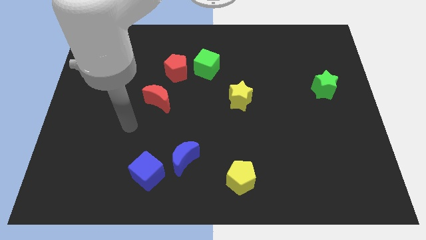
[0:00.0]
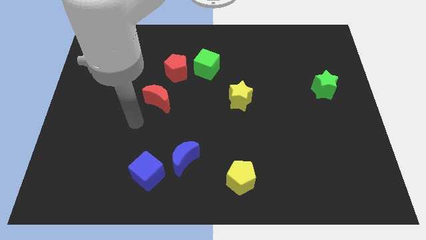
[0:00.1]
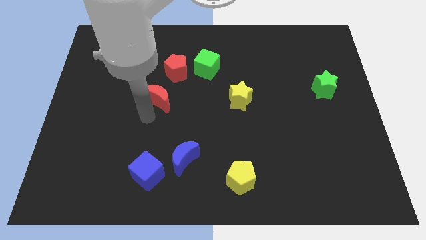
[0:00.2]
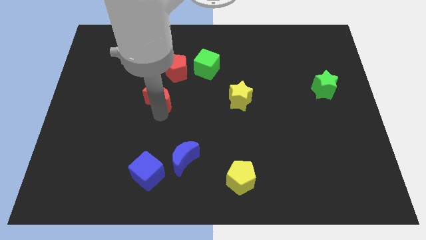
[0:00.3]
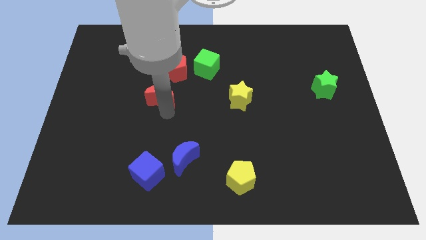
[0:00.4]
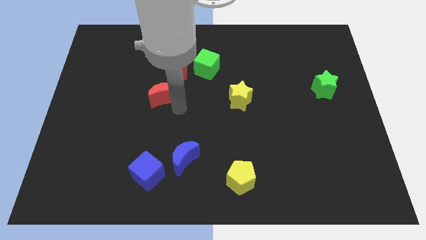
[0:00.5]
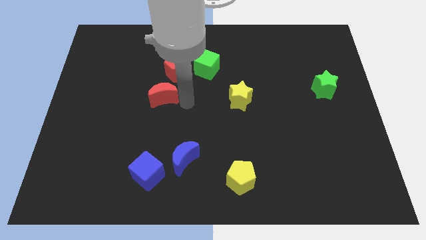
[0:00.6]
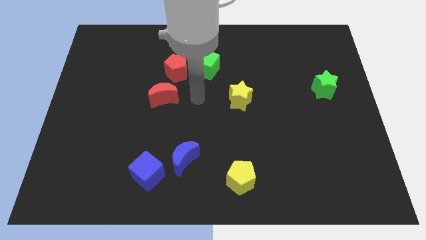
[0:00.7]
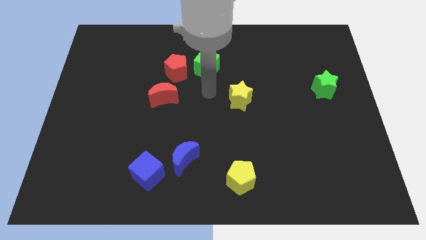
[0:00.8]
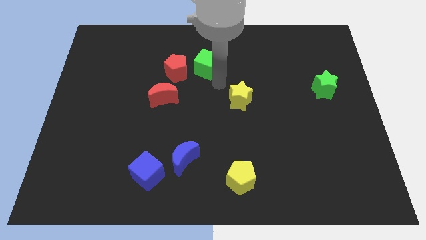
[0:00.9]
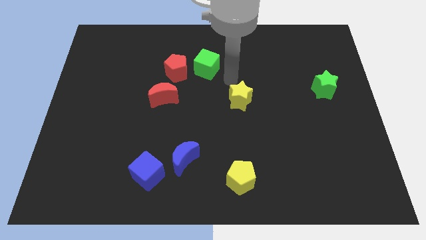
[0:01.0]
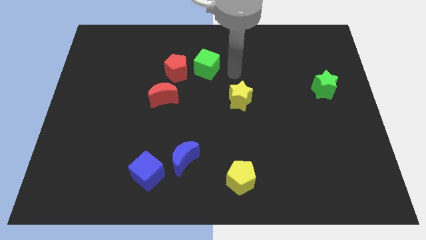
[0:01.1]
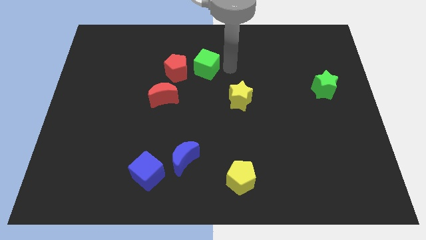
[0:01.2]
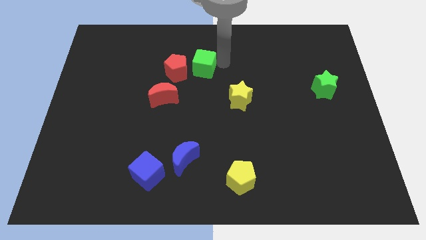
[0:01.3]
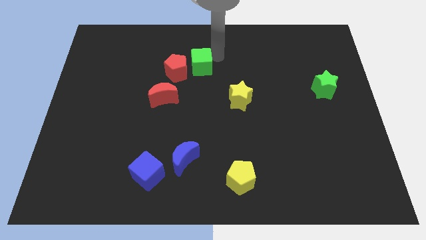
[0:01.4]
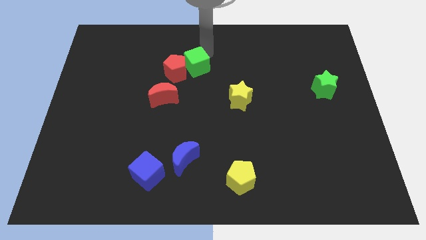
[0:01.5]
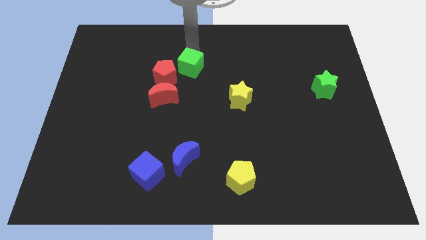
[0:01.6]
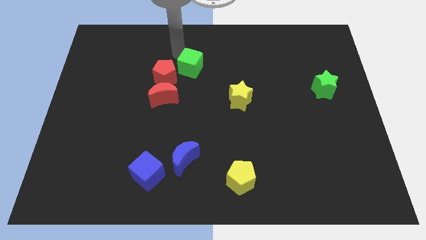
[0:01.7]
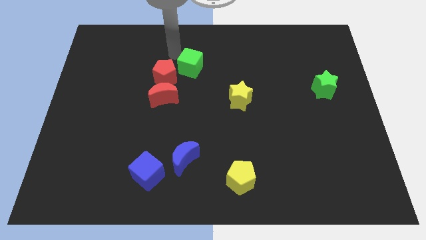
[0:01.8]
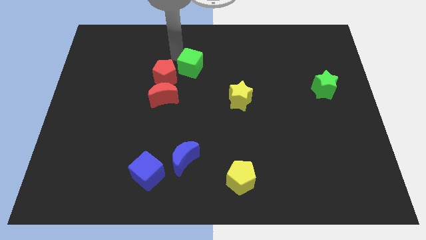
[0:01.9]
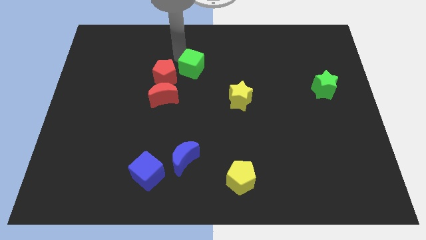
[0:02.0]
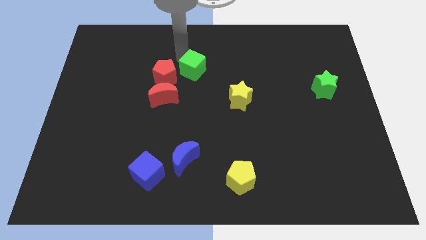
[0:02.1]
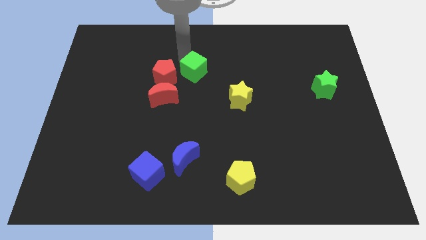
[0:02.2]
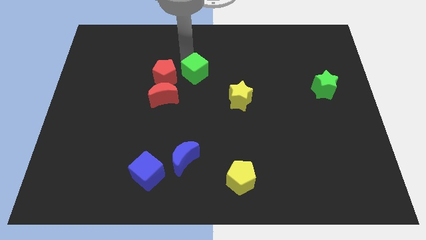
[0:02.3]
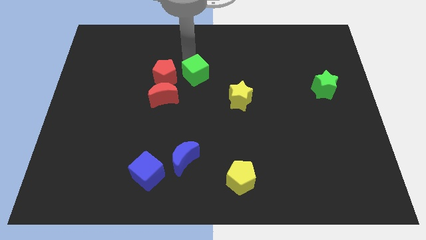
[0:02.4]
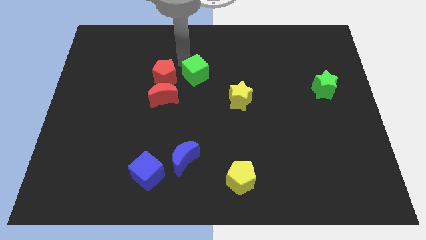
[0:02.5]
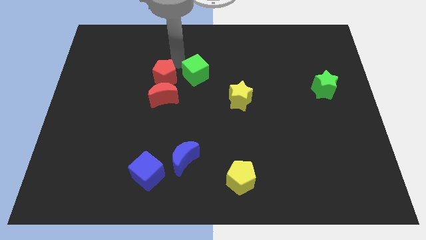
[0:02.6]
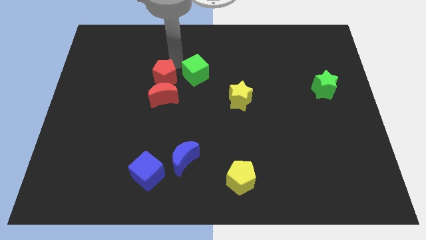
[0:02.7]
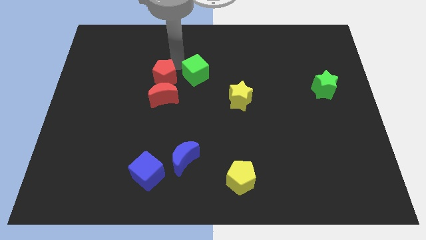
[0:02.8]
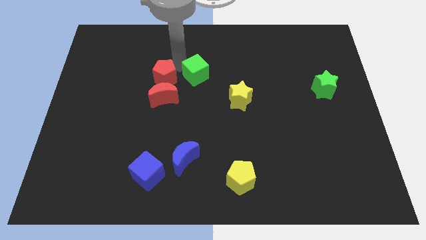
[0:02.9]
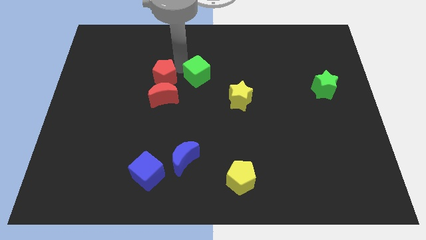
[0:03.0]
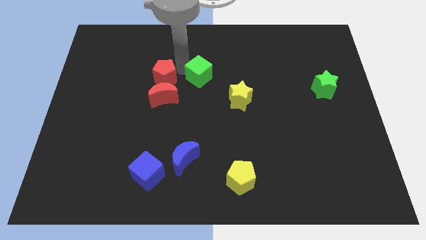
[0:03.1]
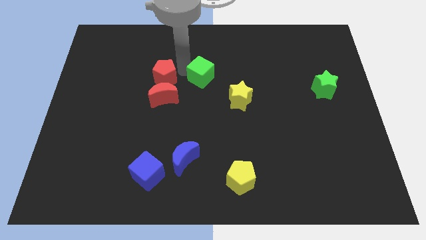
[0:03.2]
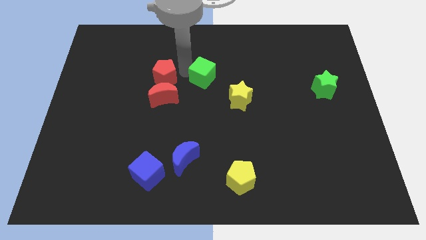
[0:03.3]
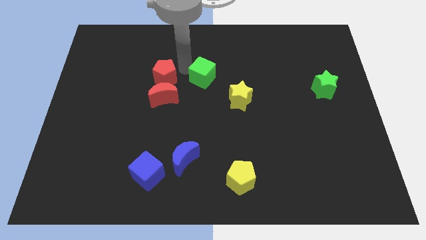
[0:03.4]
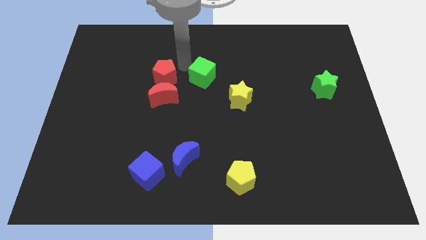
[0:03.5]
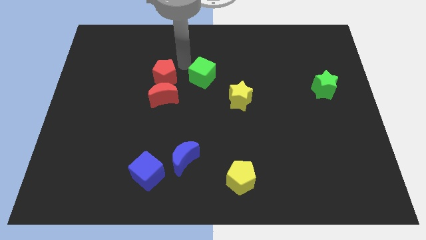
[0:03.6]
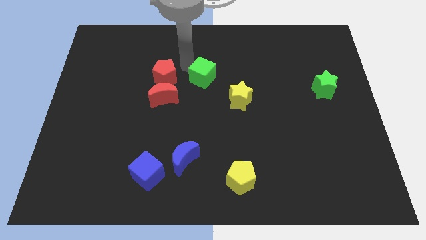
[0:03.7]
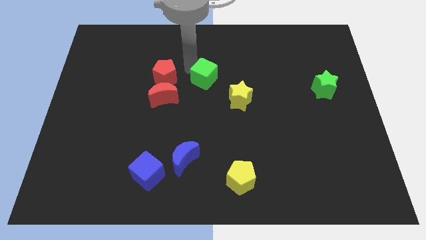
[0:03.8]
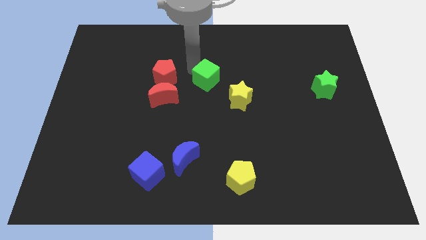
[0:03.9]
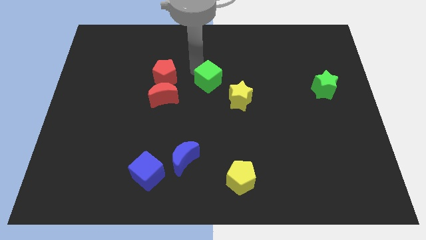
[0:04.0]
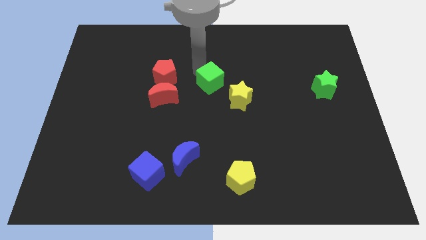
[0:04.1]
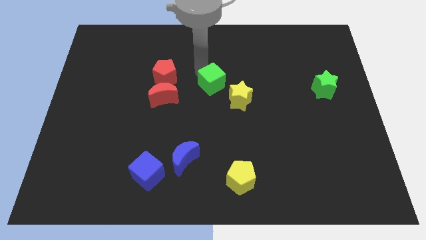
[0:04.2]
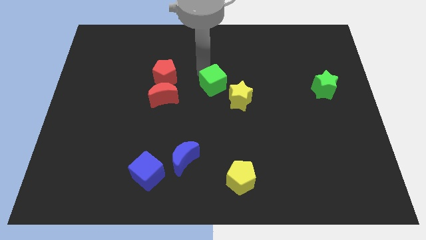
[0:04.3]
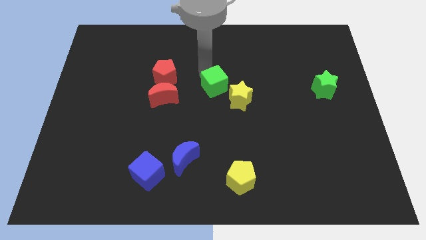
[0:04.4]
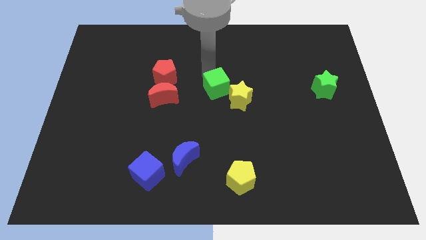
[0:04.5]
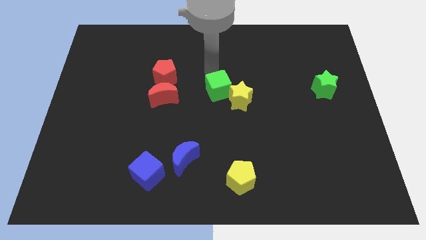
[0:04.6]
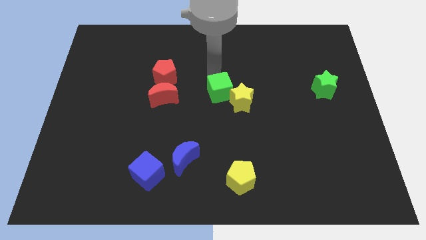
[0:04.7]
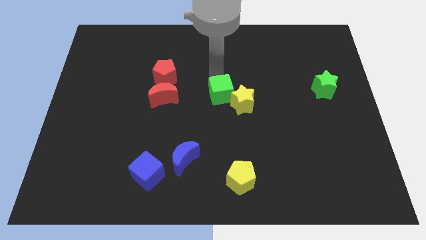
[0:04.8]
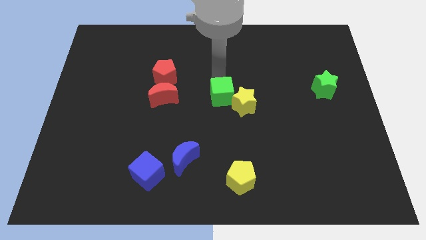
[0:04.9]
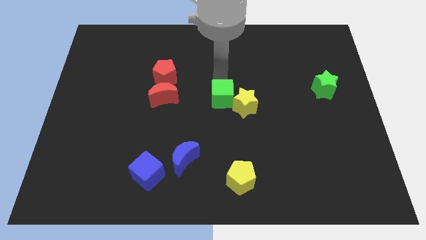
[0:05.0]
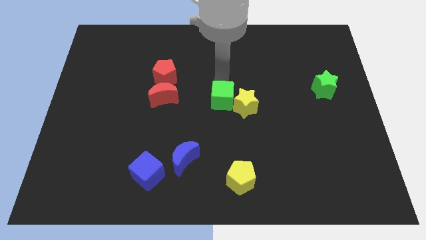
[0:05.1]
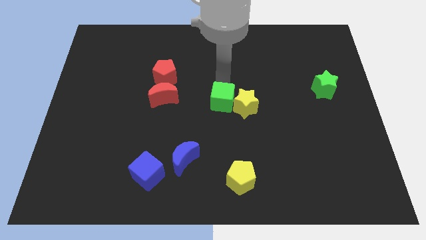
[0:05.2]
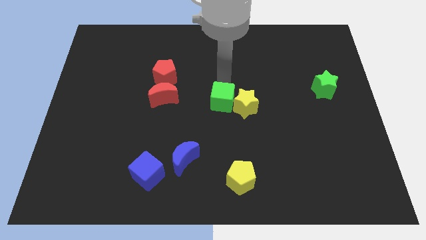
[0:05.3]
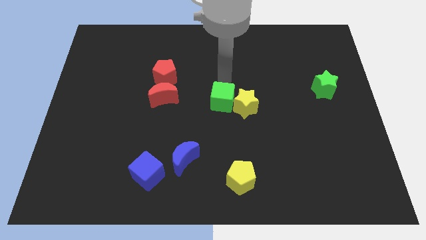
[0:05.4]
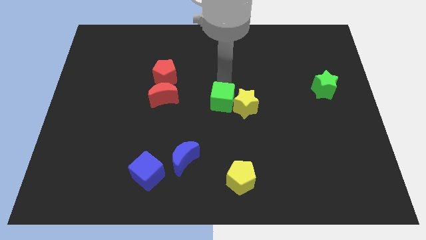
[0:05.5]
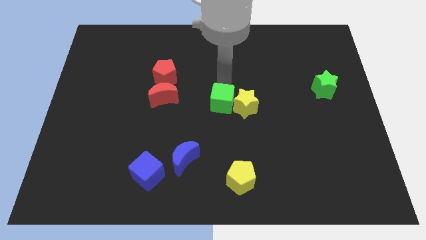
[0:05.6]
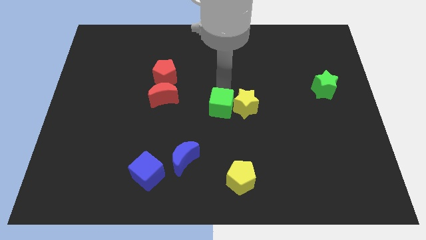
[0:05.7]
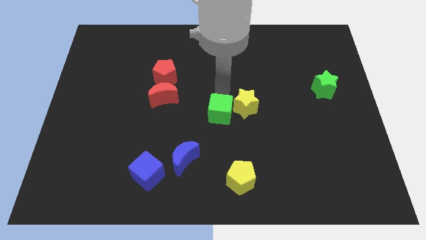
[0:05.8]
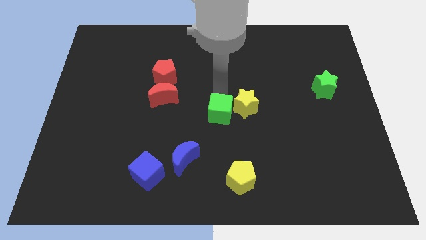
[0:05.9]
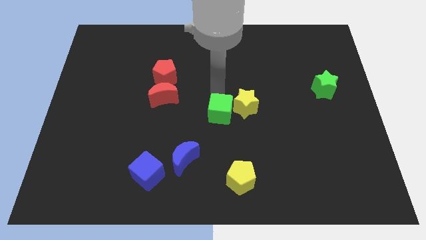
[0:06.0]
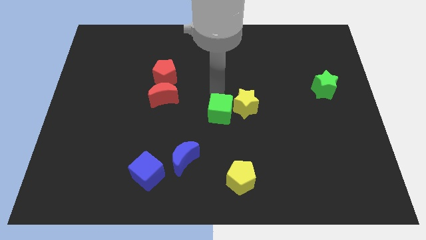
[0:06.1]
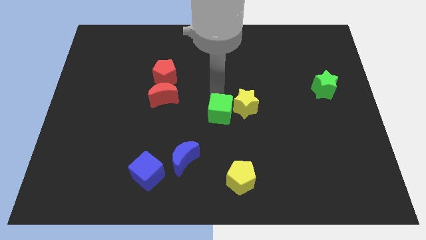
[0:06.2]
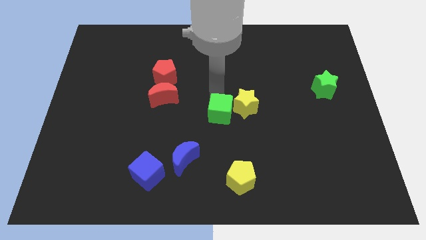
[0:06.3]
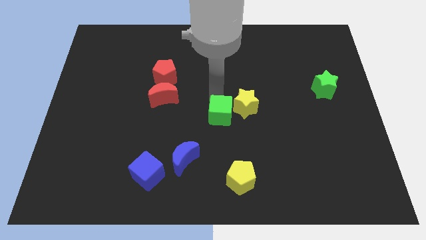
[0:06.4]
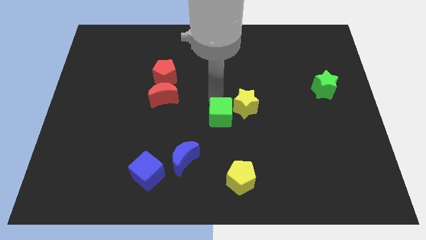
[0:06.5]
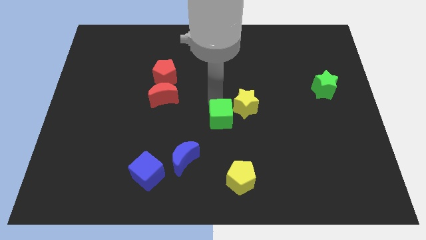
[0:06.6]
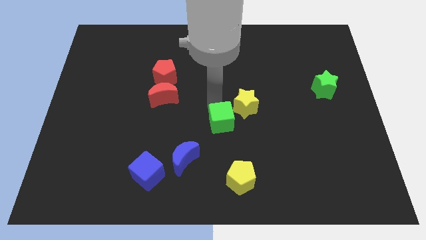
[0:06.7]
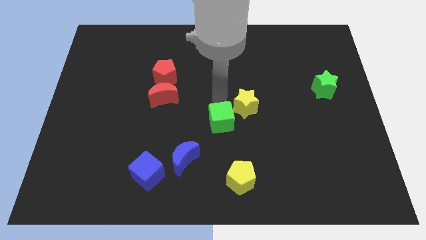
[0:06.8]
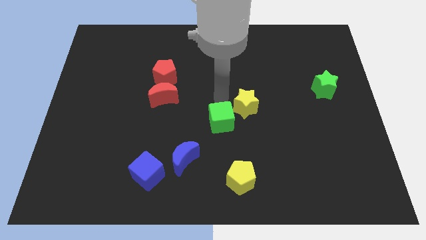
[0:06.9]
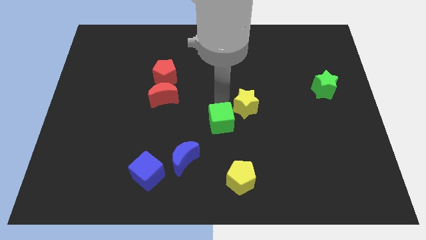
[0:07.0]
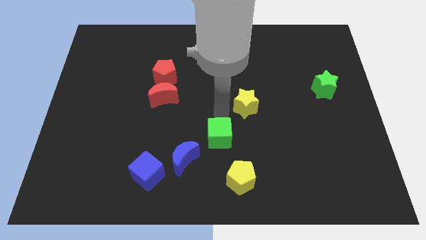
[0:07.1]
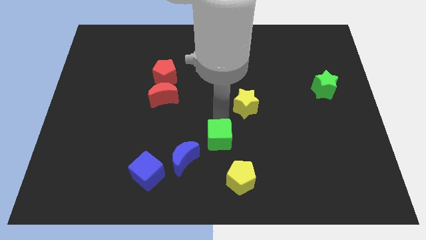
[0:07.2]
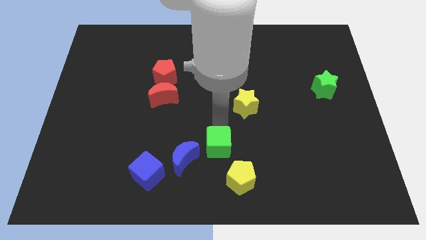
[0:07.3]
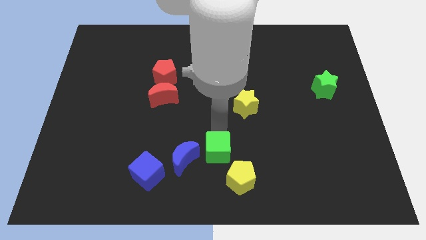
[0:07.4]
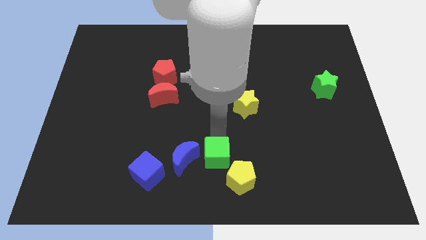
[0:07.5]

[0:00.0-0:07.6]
put the green cube to the bottom side

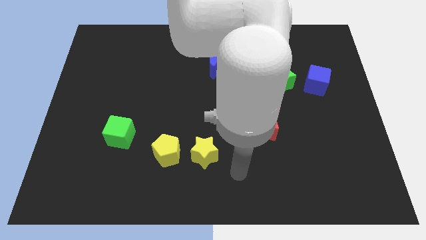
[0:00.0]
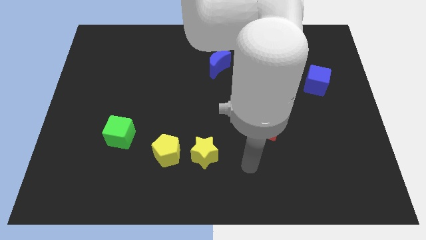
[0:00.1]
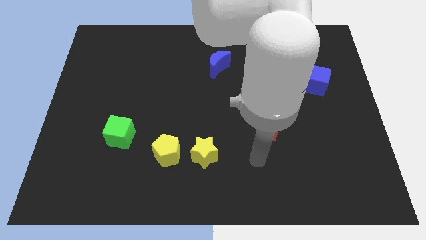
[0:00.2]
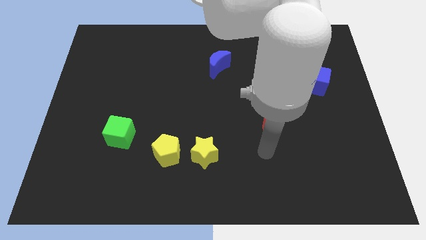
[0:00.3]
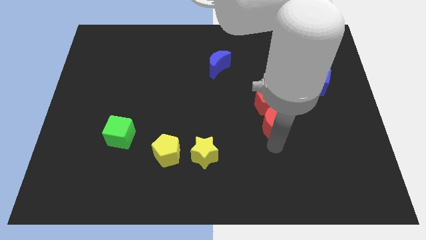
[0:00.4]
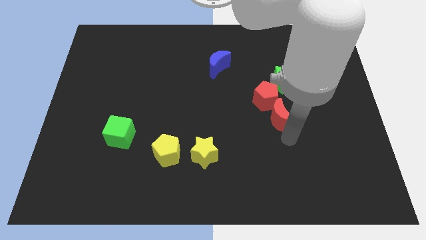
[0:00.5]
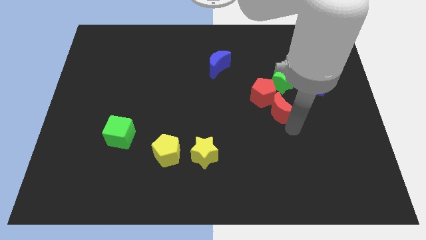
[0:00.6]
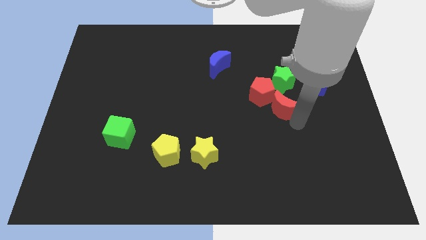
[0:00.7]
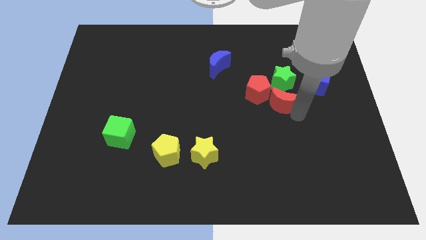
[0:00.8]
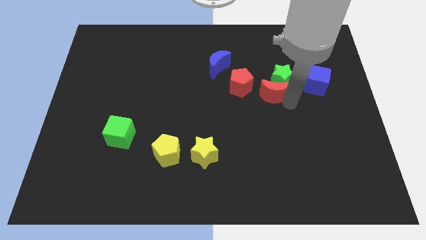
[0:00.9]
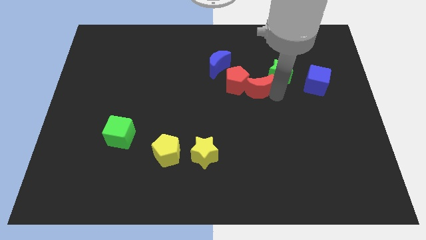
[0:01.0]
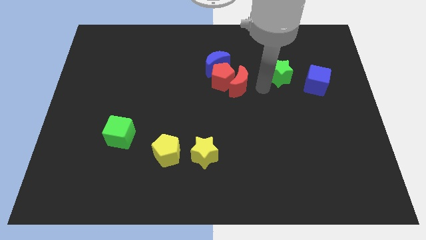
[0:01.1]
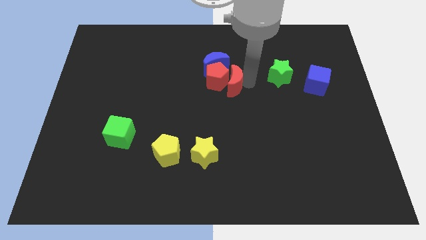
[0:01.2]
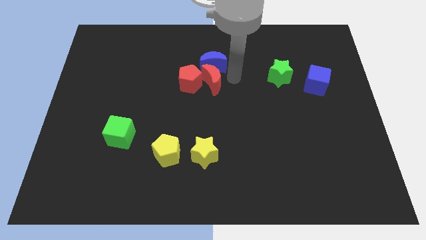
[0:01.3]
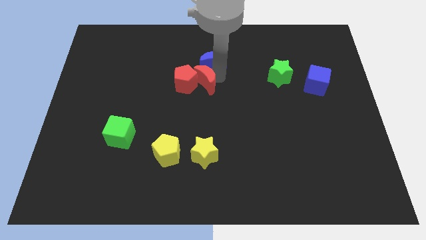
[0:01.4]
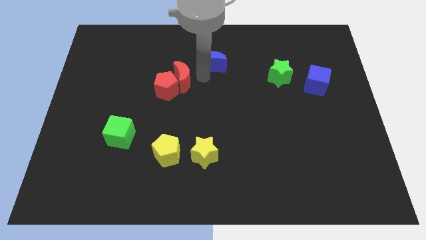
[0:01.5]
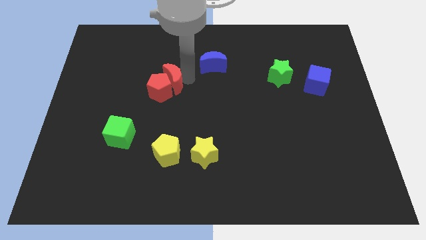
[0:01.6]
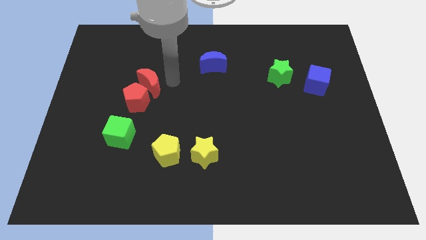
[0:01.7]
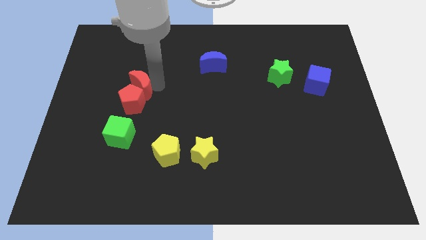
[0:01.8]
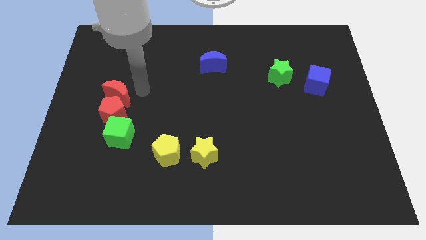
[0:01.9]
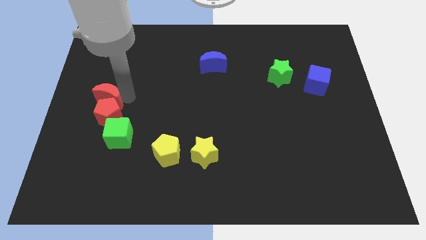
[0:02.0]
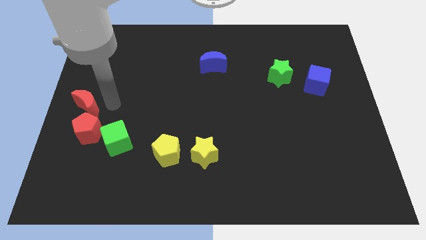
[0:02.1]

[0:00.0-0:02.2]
slide the red pentagon to the left side of the board
